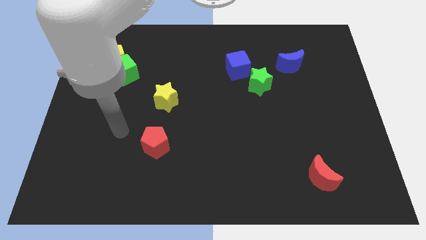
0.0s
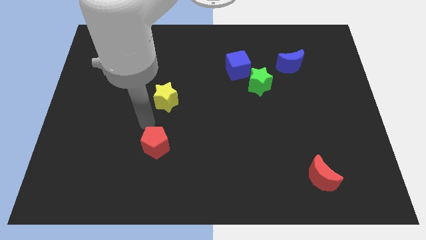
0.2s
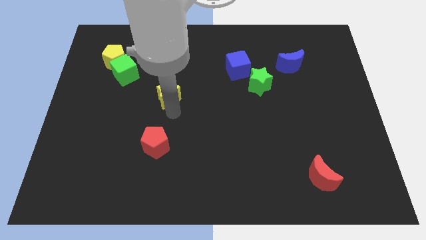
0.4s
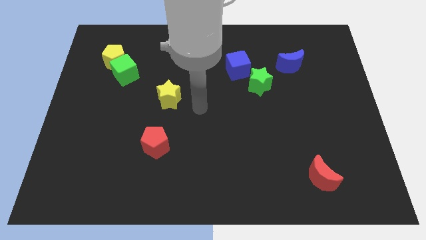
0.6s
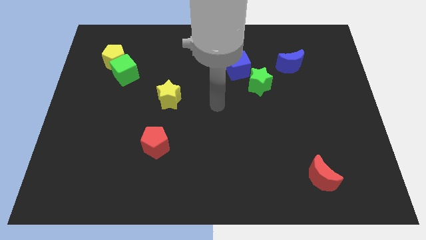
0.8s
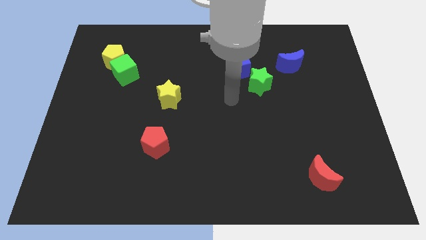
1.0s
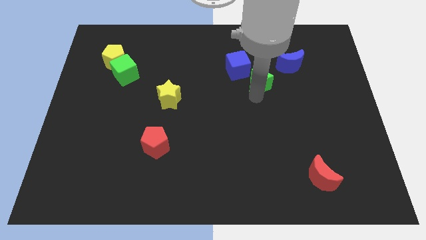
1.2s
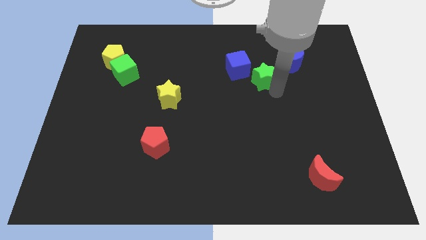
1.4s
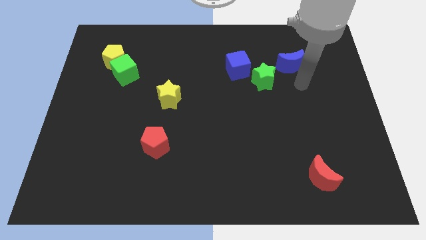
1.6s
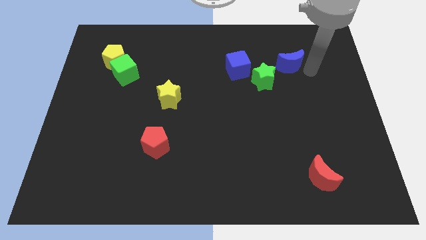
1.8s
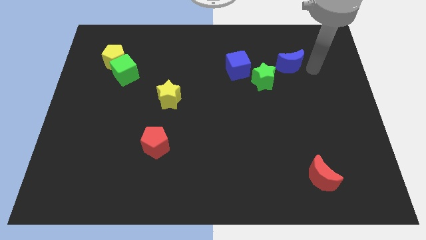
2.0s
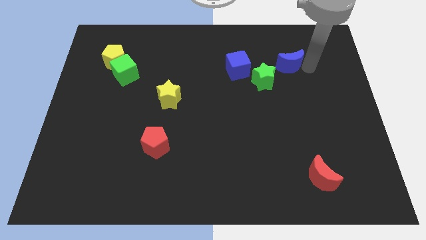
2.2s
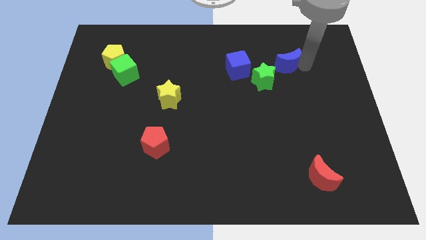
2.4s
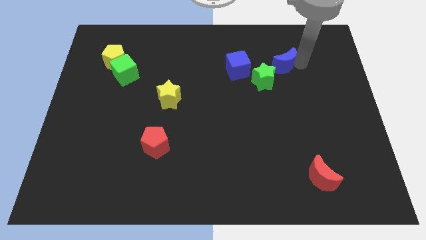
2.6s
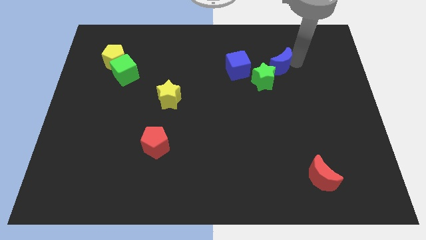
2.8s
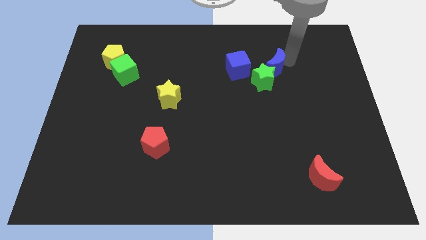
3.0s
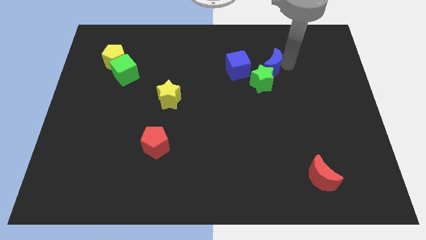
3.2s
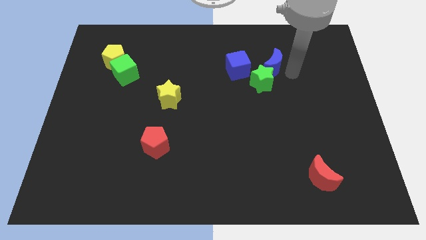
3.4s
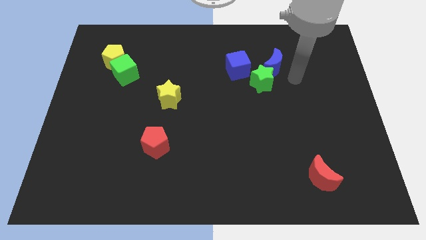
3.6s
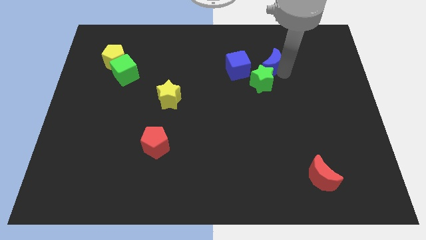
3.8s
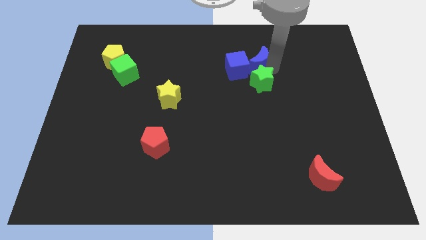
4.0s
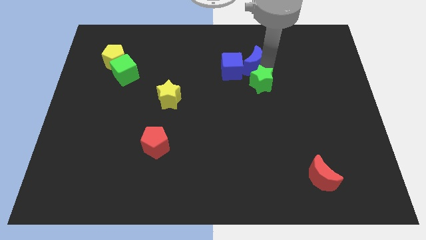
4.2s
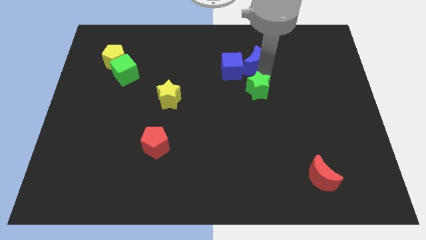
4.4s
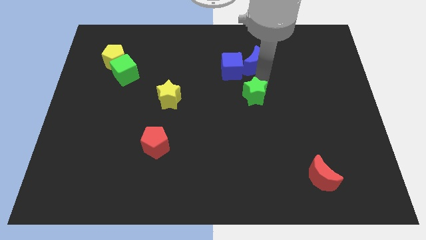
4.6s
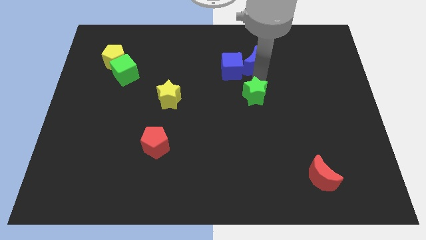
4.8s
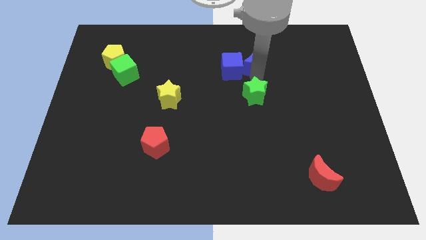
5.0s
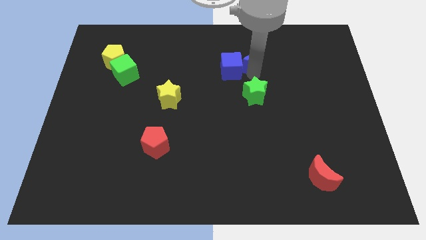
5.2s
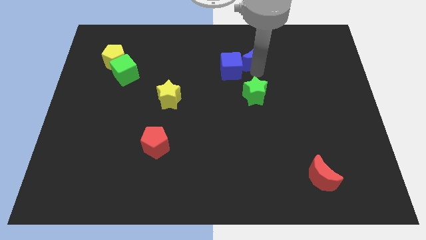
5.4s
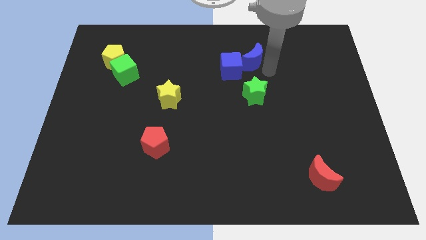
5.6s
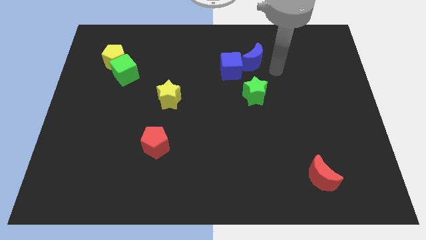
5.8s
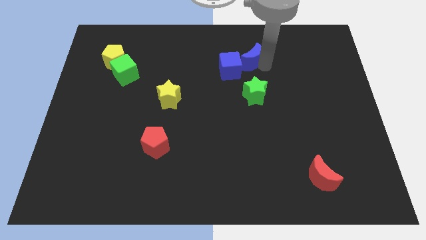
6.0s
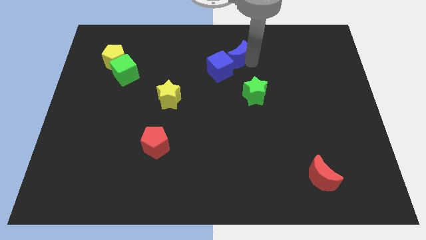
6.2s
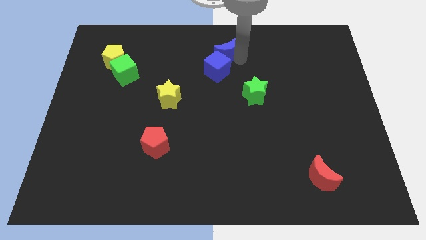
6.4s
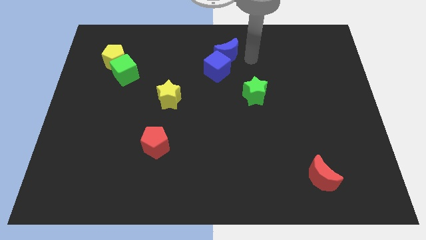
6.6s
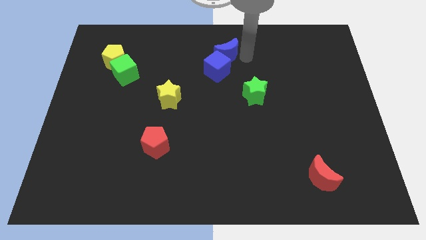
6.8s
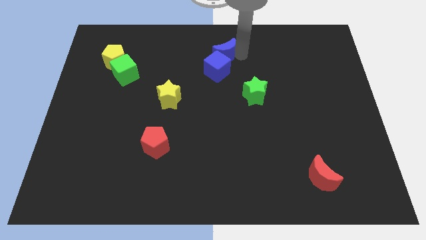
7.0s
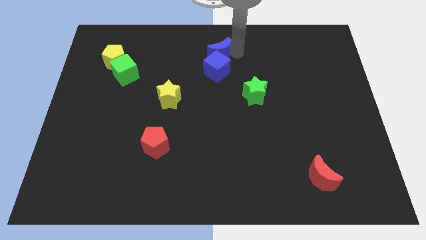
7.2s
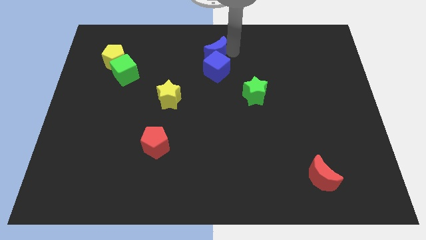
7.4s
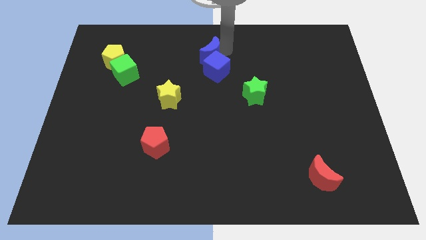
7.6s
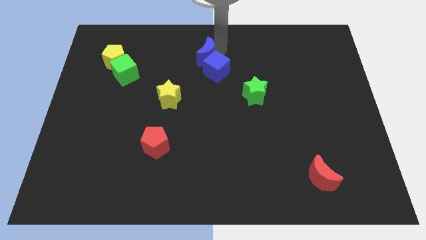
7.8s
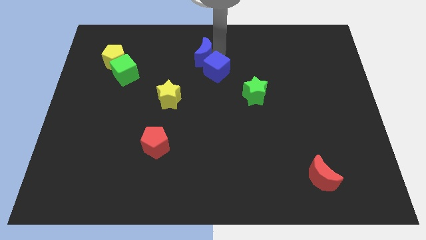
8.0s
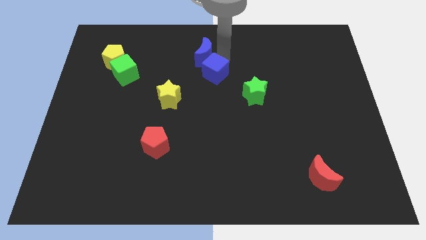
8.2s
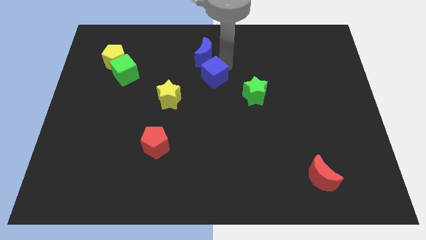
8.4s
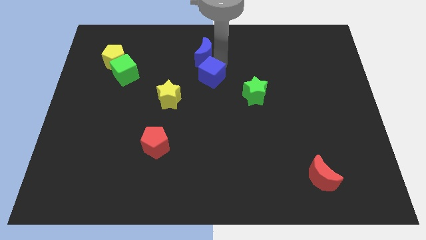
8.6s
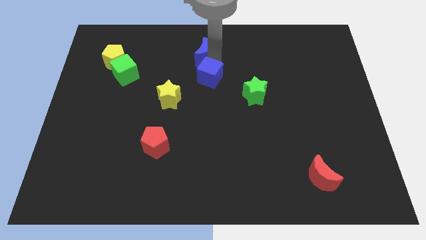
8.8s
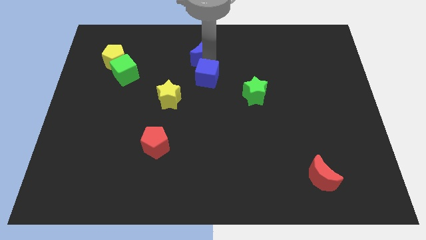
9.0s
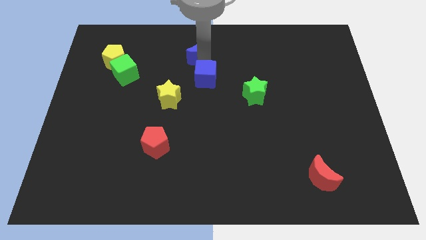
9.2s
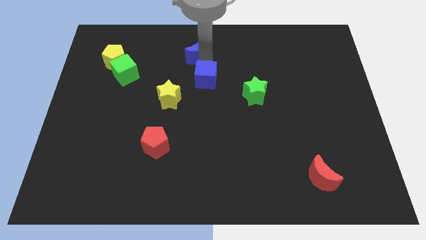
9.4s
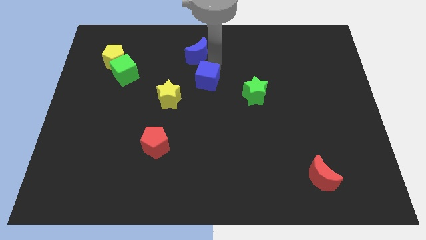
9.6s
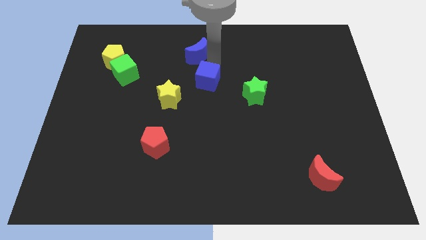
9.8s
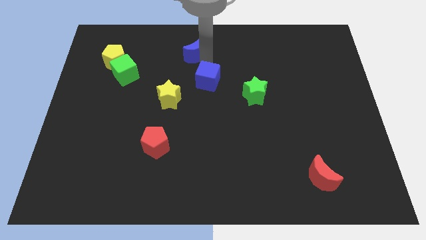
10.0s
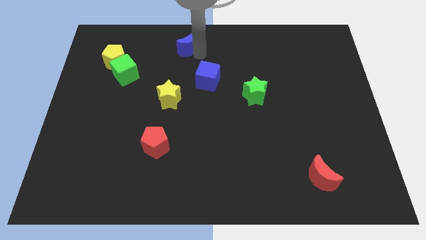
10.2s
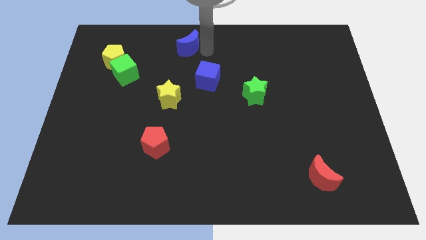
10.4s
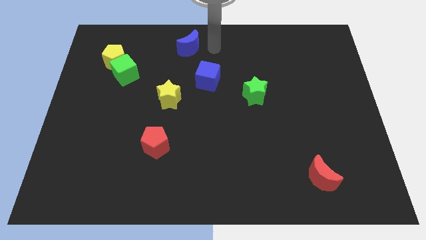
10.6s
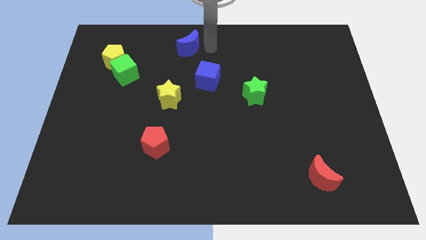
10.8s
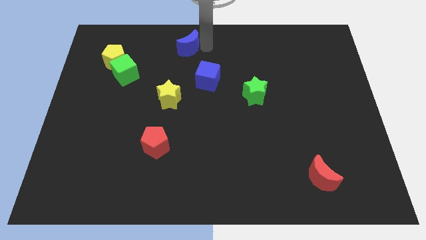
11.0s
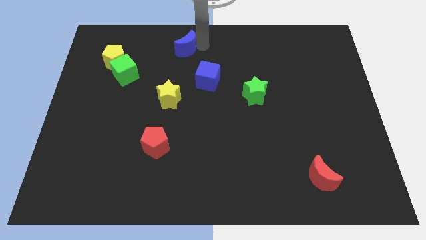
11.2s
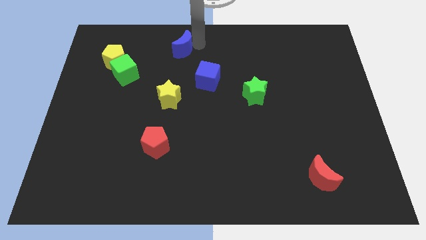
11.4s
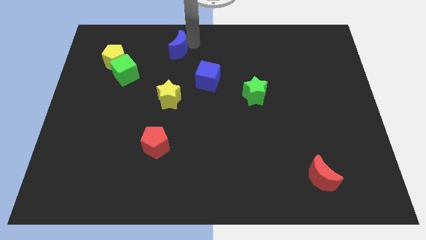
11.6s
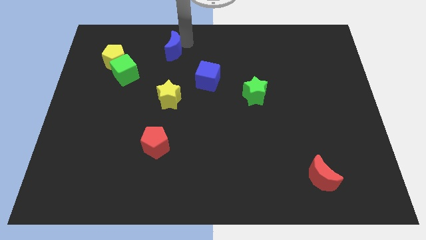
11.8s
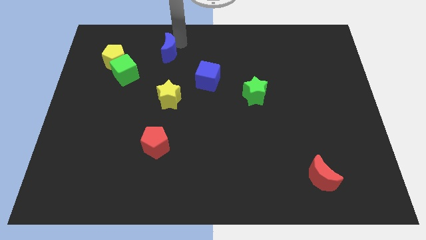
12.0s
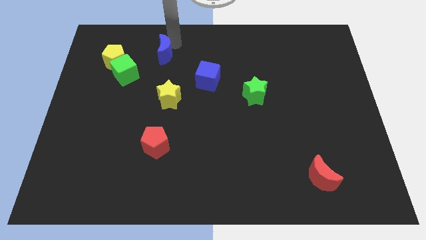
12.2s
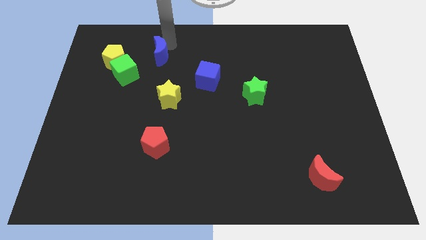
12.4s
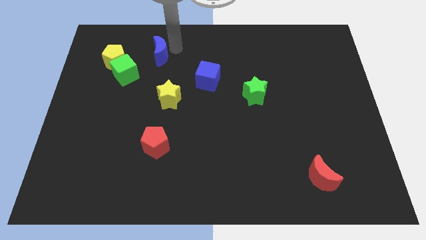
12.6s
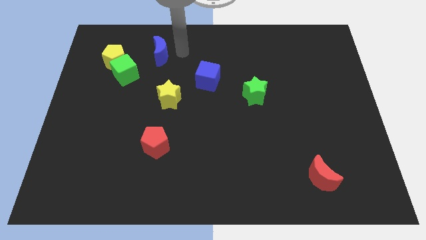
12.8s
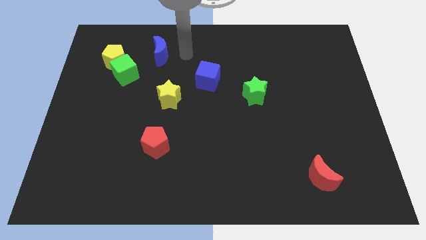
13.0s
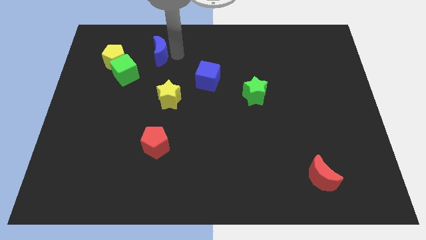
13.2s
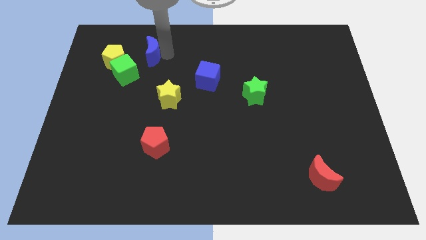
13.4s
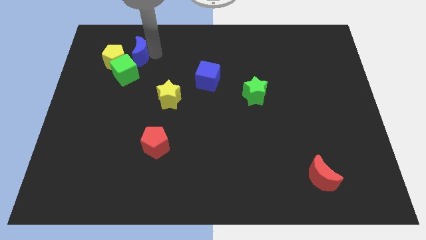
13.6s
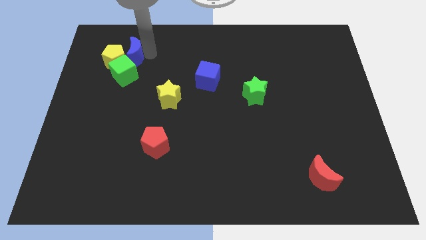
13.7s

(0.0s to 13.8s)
push the blue moon close to the yellow pentagon
